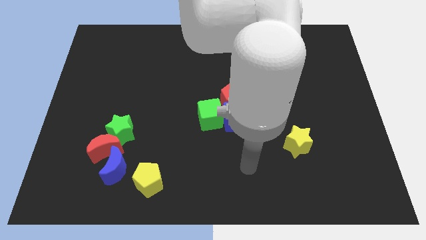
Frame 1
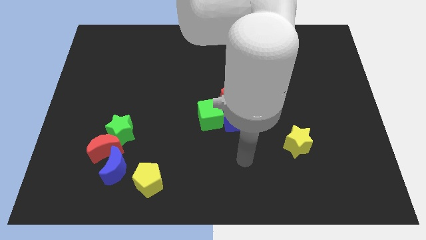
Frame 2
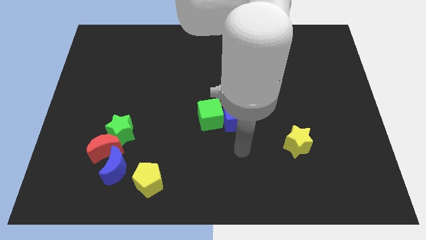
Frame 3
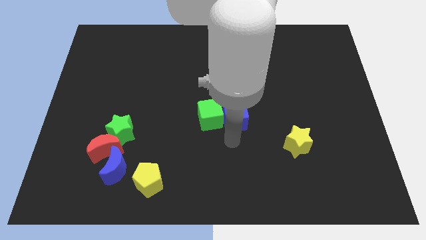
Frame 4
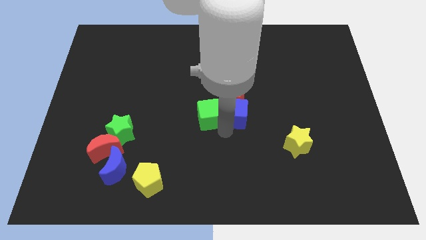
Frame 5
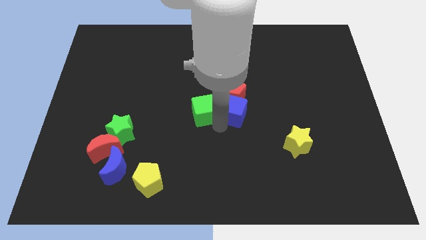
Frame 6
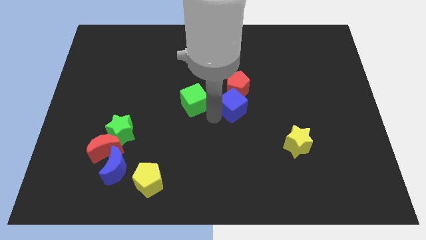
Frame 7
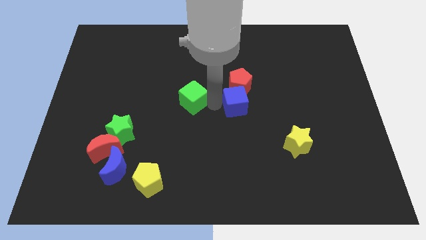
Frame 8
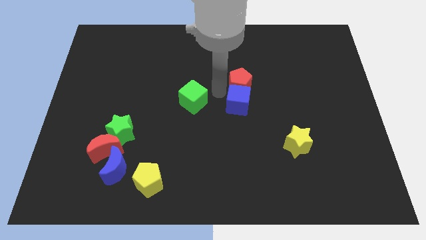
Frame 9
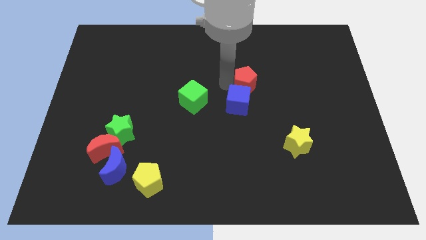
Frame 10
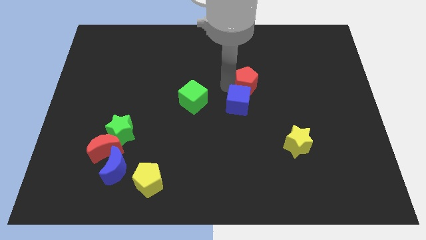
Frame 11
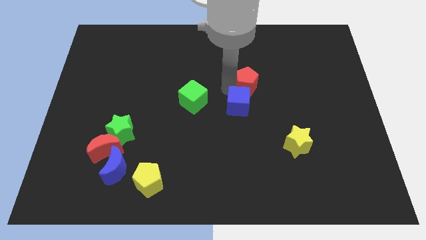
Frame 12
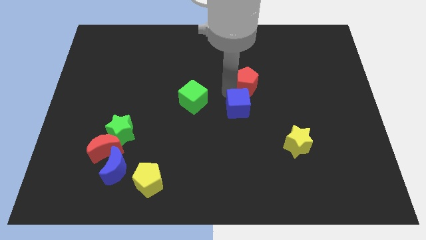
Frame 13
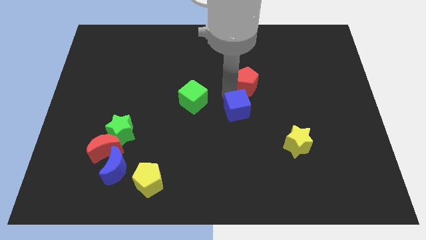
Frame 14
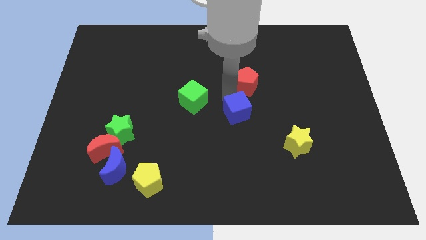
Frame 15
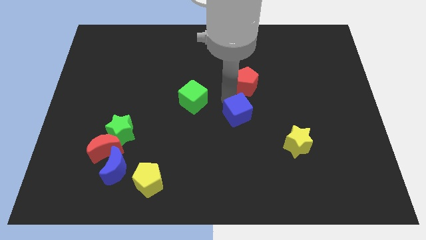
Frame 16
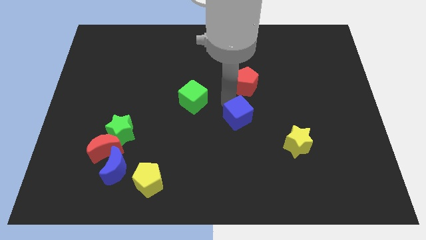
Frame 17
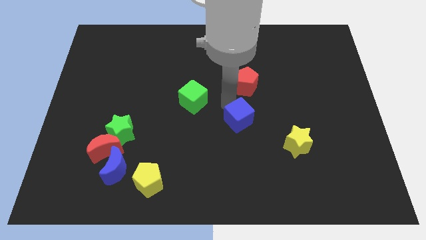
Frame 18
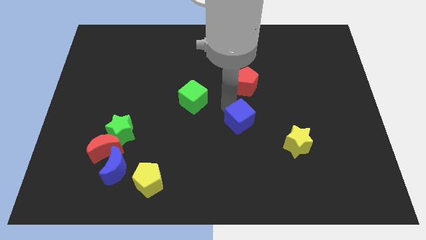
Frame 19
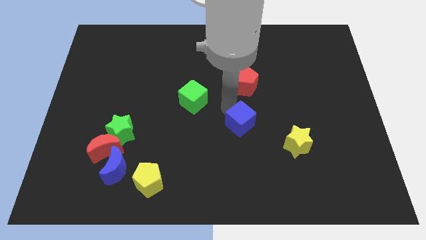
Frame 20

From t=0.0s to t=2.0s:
pull the blue cube apart from the red pentagon and green cube

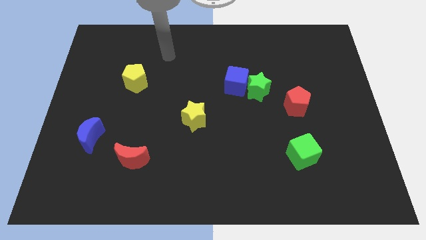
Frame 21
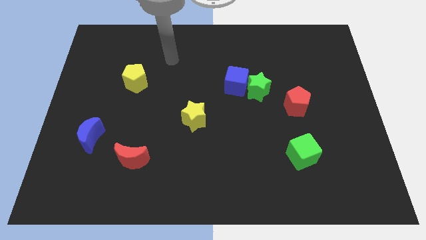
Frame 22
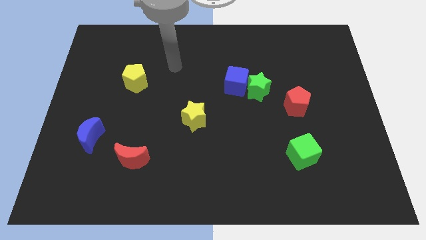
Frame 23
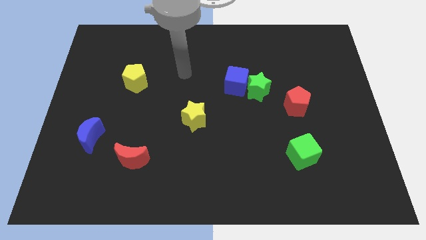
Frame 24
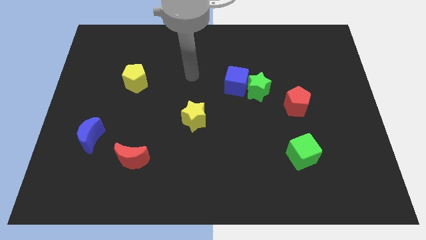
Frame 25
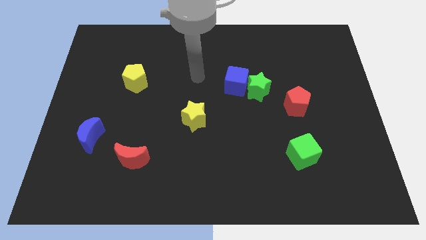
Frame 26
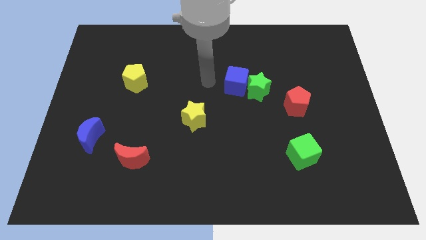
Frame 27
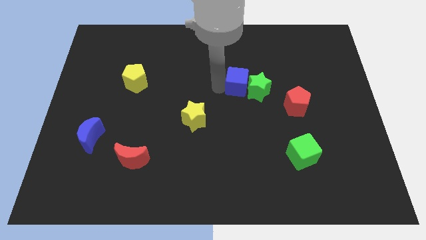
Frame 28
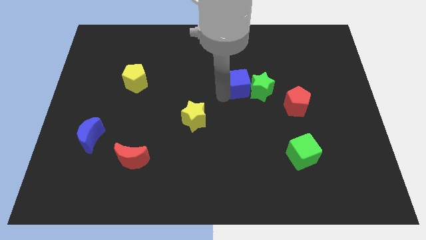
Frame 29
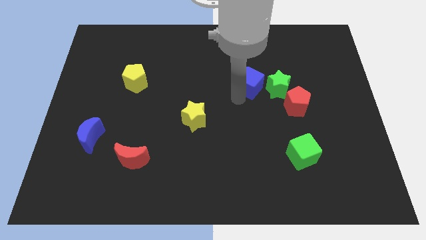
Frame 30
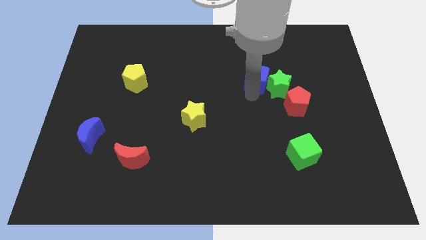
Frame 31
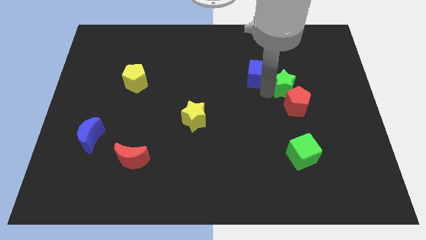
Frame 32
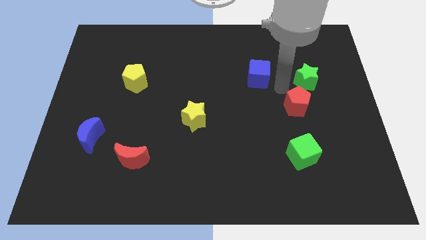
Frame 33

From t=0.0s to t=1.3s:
pull the blue cube apart from the green star

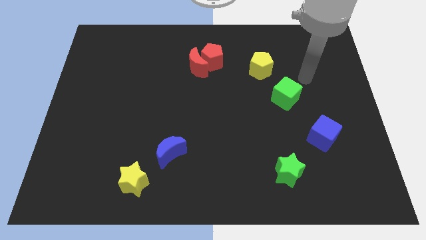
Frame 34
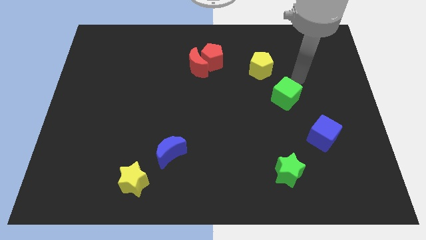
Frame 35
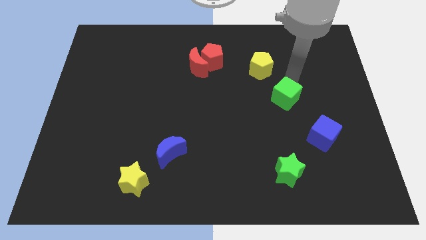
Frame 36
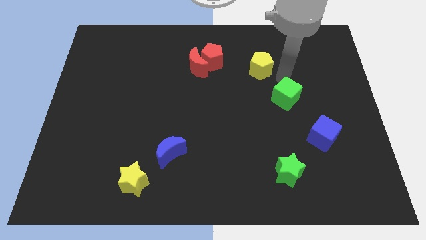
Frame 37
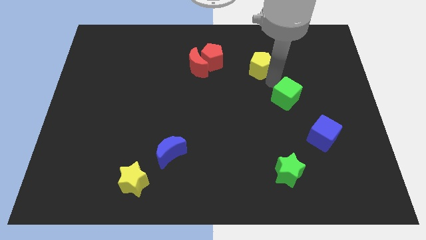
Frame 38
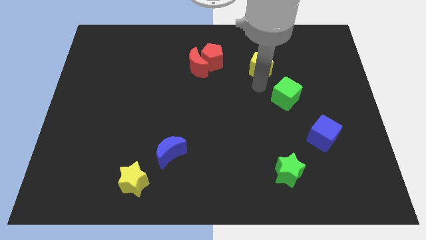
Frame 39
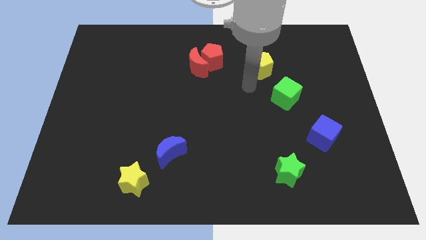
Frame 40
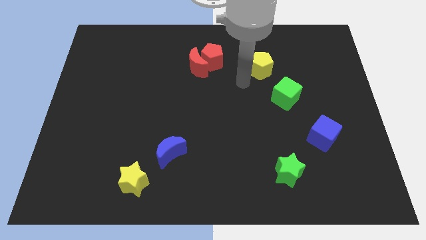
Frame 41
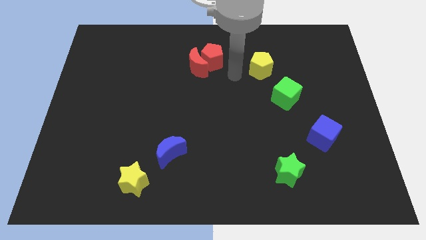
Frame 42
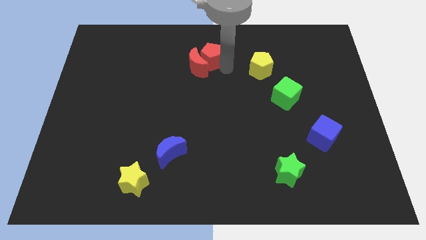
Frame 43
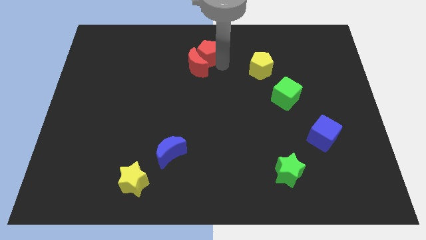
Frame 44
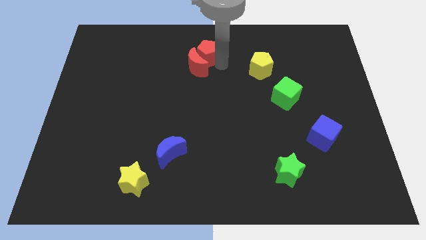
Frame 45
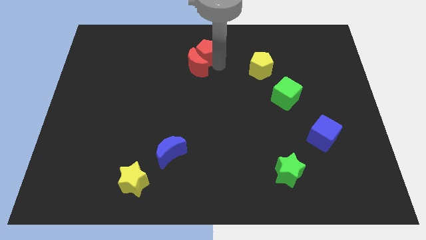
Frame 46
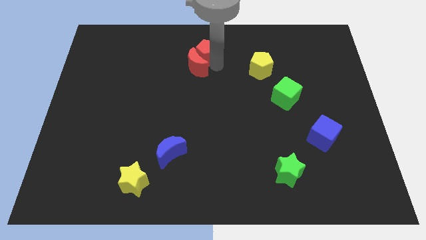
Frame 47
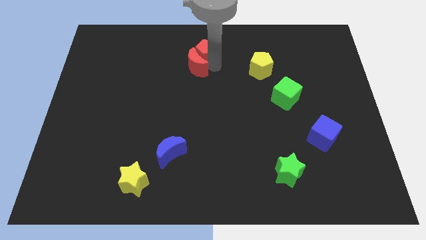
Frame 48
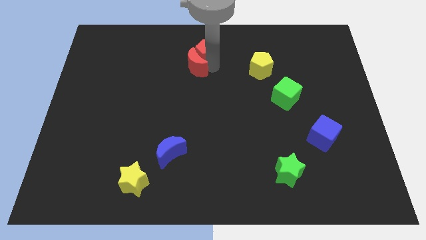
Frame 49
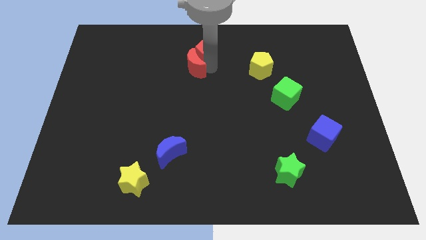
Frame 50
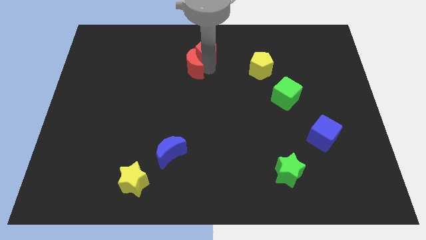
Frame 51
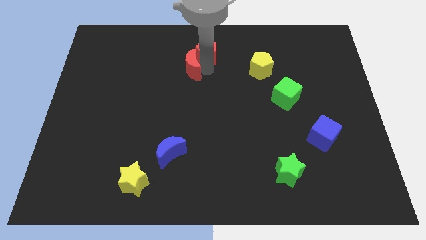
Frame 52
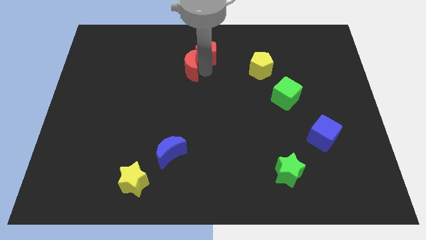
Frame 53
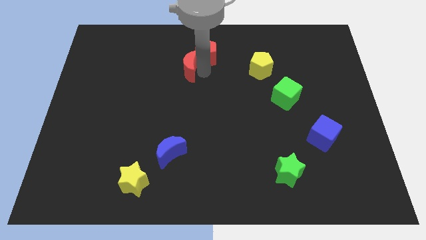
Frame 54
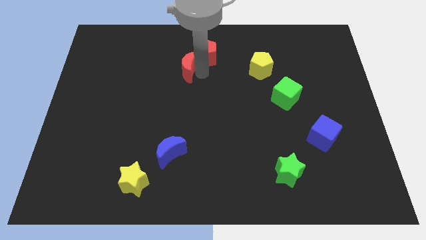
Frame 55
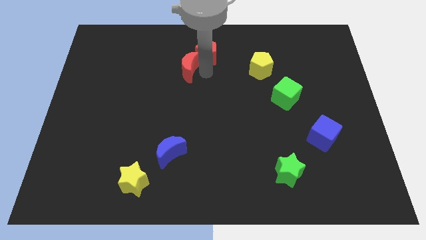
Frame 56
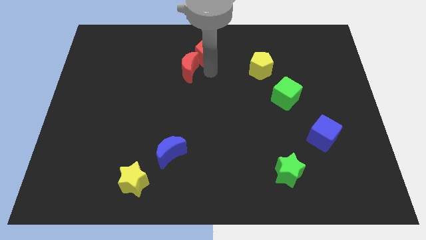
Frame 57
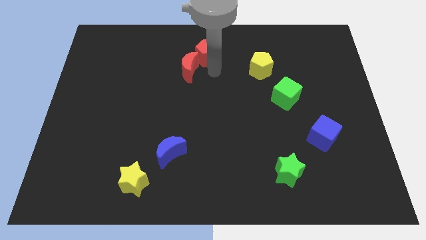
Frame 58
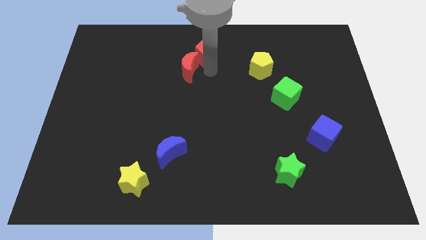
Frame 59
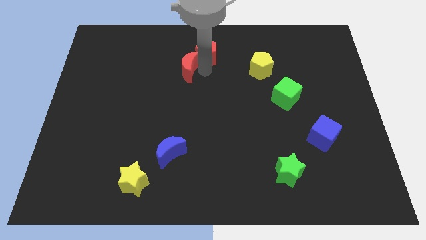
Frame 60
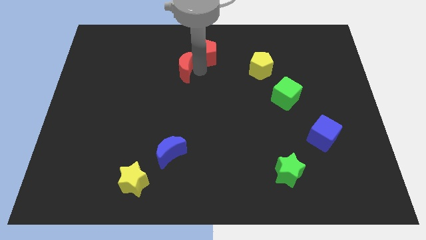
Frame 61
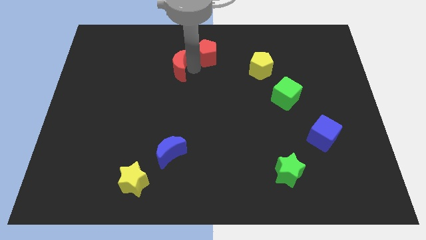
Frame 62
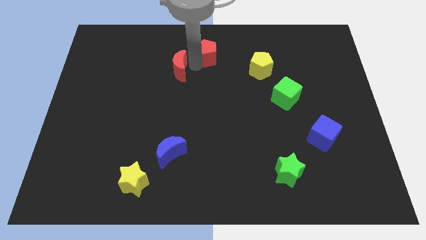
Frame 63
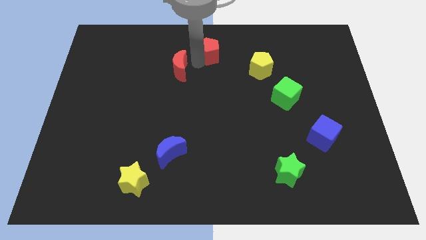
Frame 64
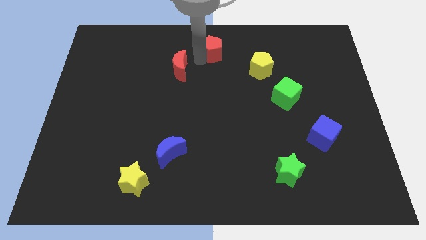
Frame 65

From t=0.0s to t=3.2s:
pull the red moon apart from the red pentagon

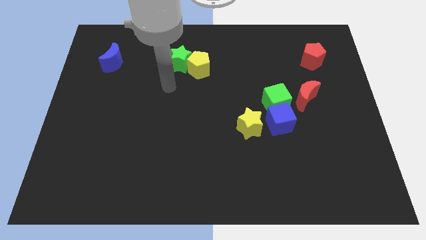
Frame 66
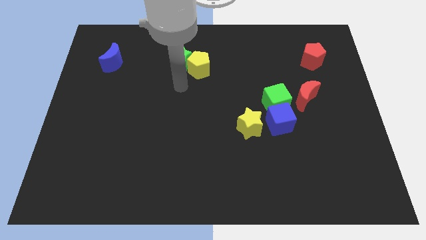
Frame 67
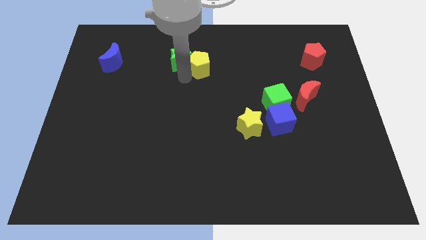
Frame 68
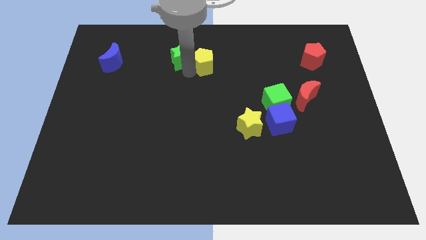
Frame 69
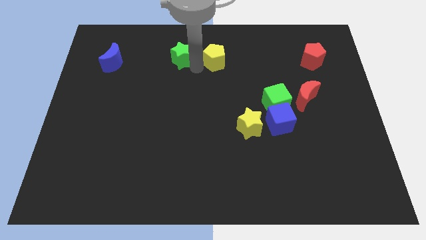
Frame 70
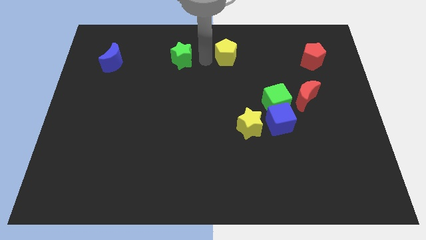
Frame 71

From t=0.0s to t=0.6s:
move the green star away from the yellow pentagon

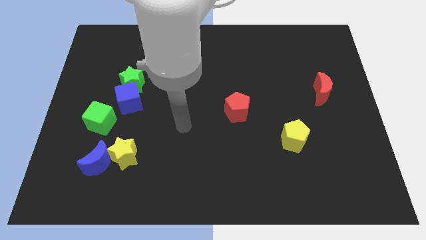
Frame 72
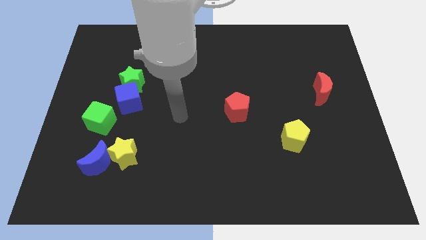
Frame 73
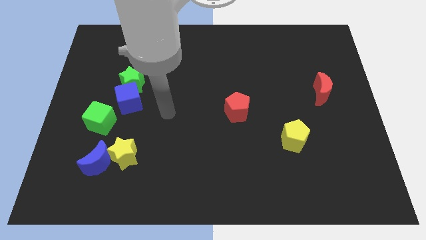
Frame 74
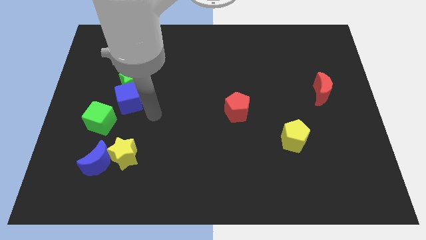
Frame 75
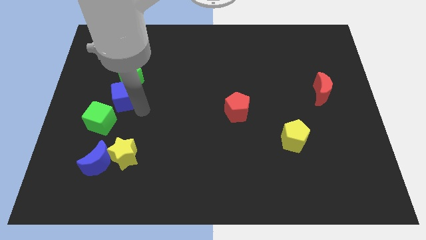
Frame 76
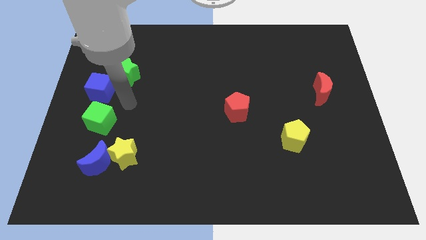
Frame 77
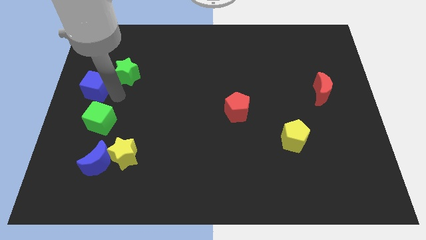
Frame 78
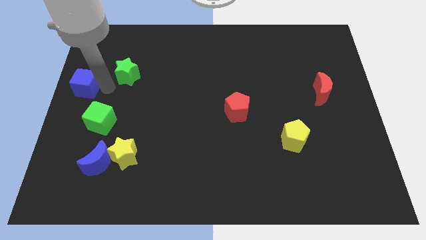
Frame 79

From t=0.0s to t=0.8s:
move the green star away from the blue cube

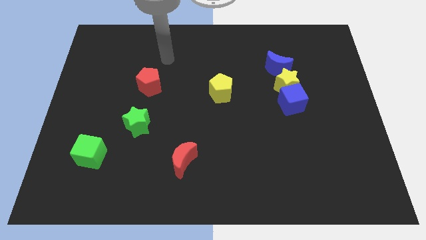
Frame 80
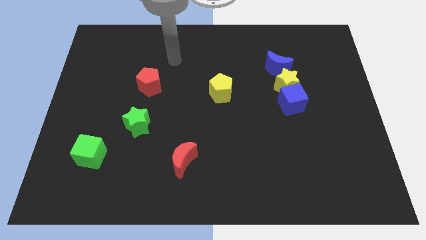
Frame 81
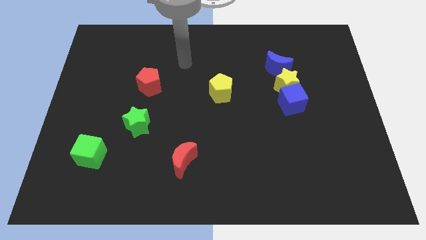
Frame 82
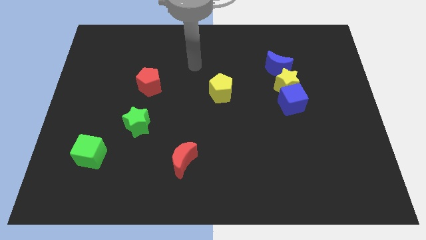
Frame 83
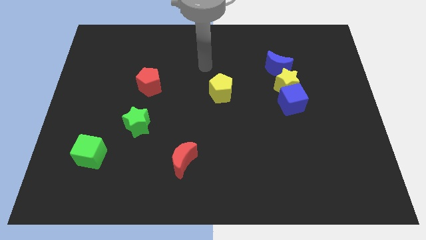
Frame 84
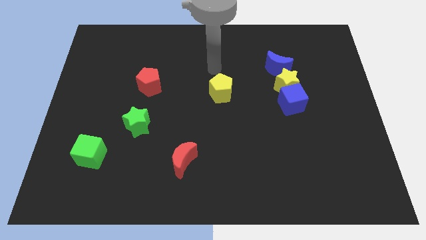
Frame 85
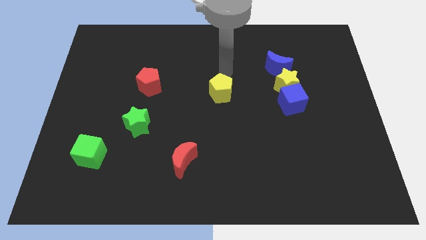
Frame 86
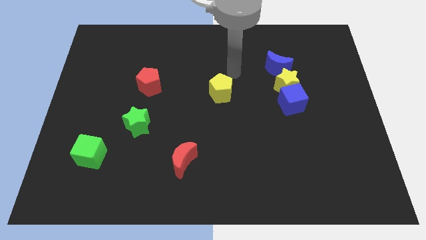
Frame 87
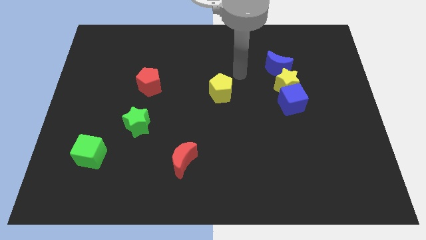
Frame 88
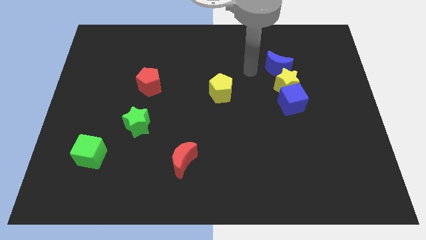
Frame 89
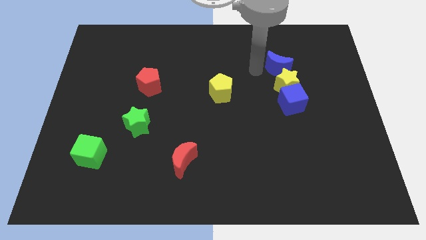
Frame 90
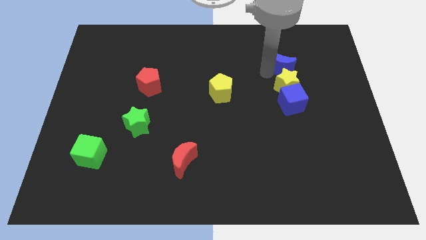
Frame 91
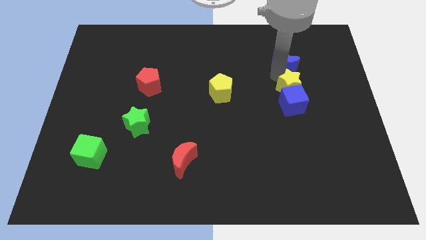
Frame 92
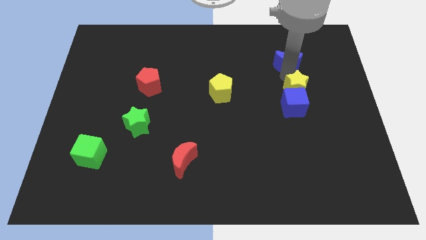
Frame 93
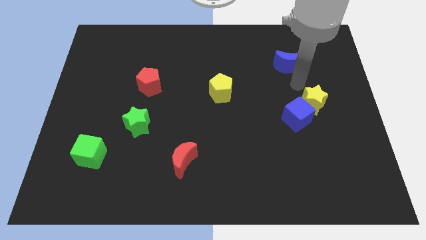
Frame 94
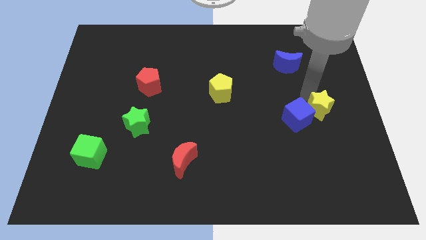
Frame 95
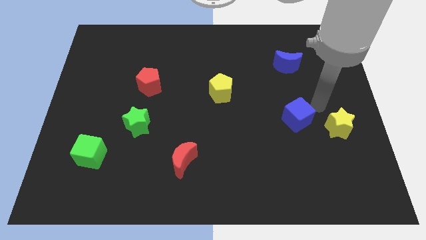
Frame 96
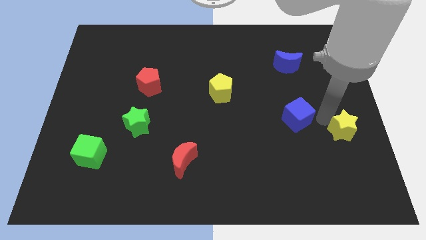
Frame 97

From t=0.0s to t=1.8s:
pull the blue cube apart from the yellow star
